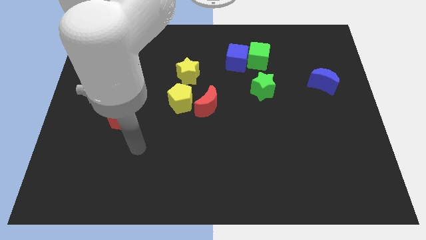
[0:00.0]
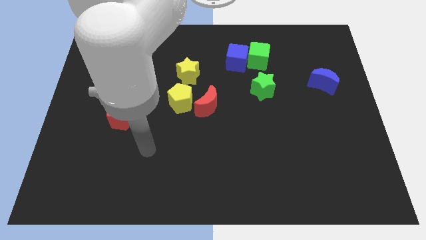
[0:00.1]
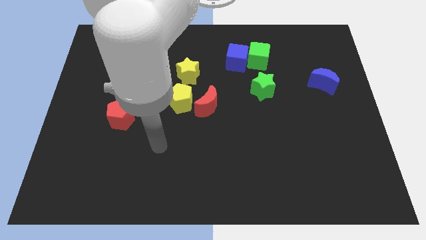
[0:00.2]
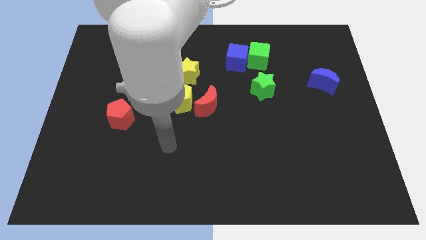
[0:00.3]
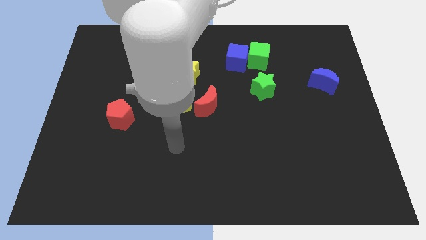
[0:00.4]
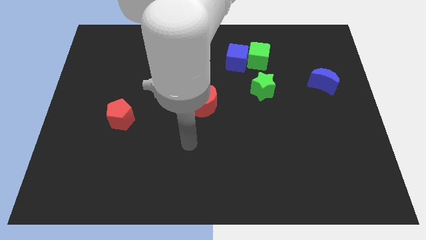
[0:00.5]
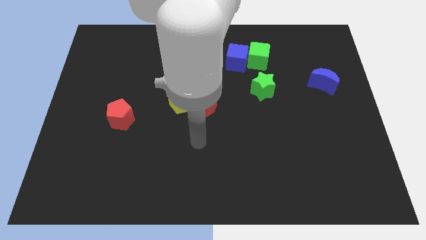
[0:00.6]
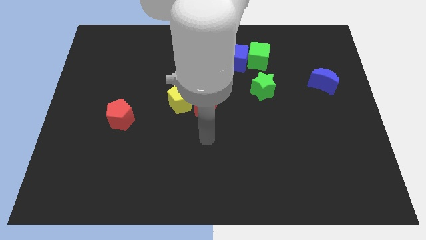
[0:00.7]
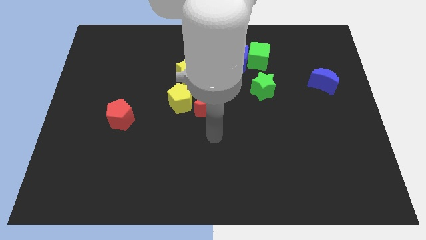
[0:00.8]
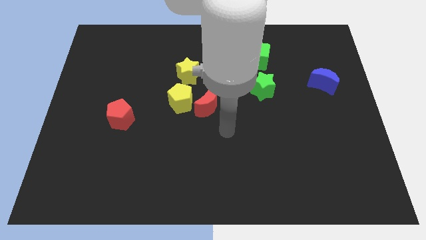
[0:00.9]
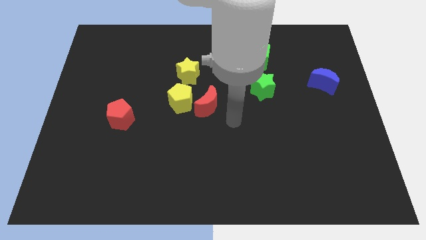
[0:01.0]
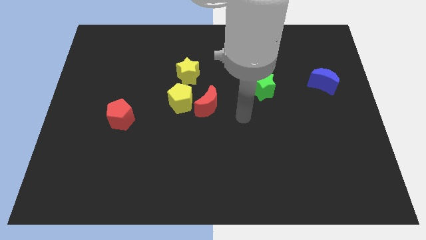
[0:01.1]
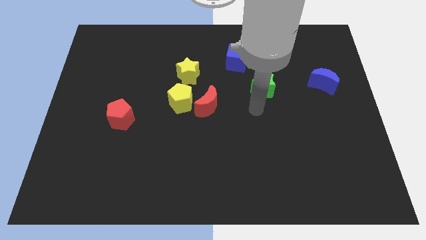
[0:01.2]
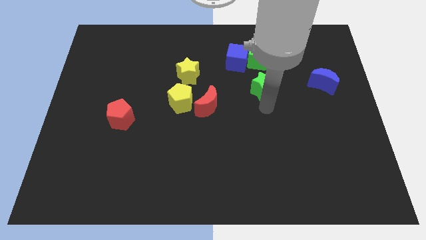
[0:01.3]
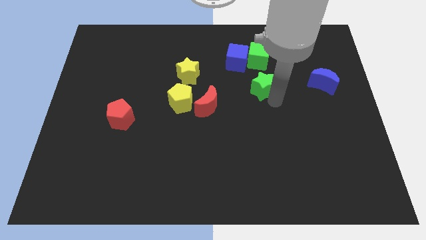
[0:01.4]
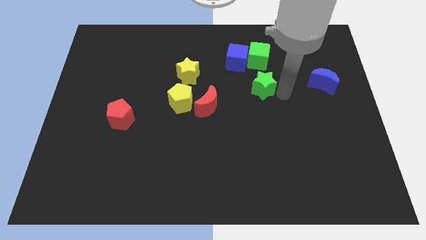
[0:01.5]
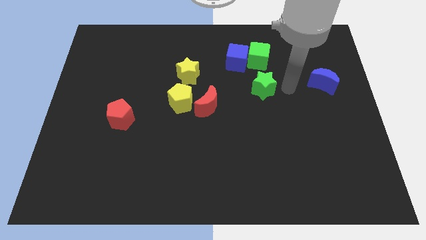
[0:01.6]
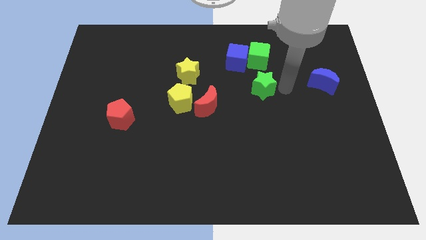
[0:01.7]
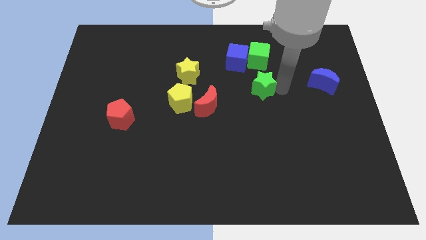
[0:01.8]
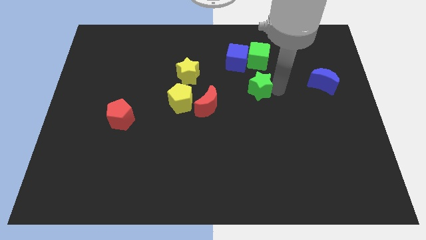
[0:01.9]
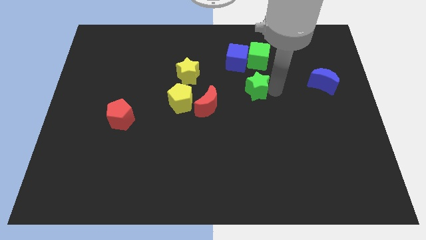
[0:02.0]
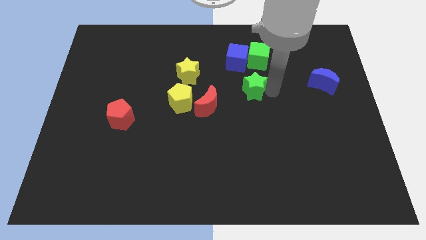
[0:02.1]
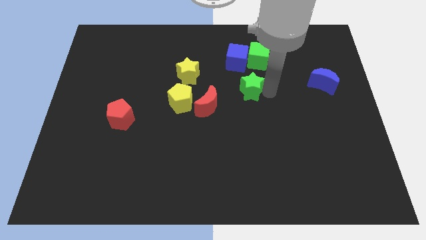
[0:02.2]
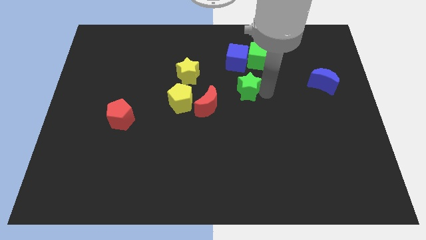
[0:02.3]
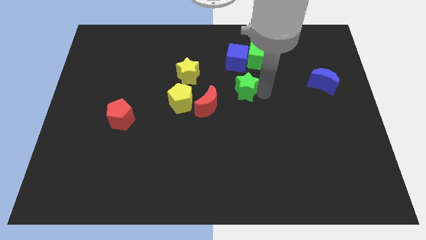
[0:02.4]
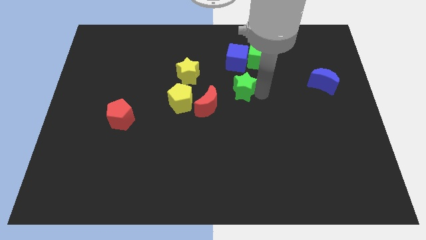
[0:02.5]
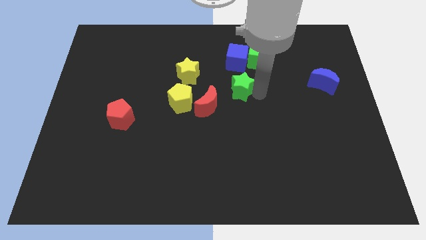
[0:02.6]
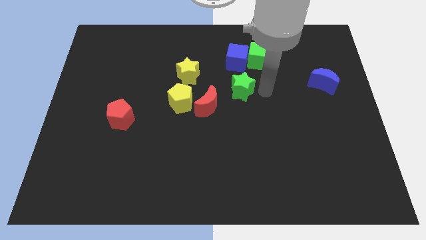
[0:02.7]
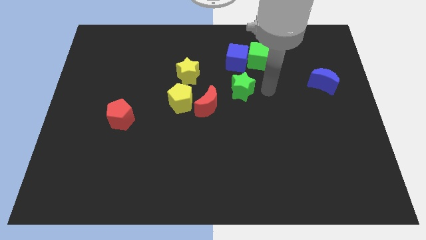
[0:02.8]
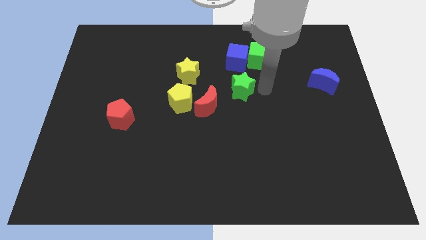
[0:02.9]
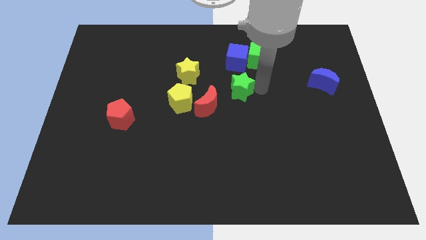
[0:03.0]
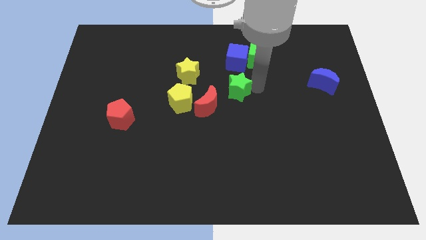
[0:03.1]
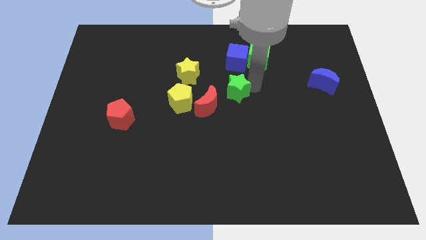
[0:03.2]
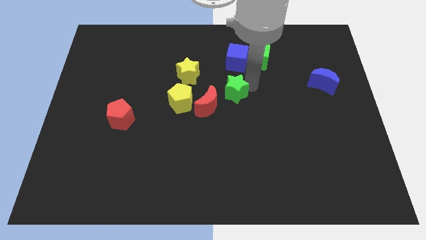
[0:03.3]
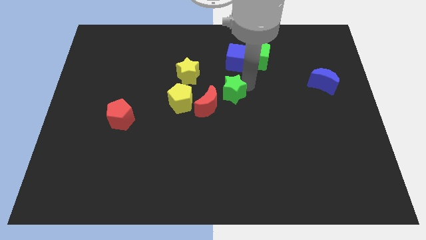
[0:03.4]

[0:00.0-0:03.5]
slightly move the green star to the left

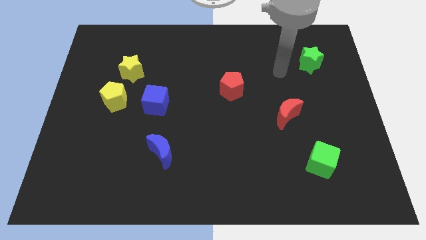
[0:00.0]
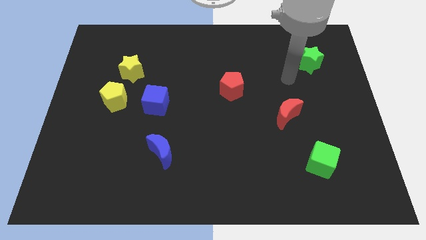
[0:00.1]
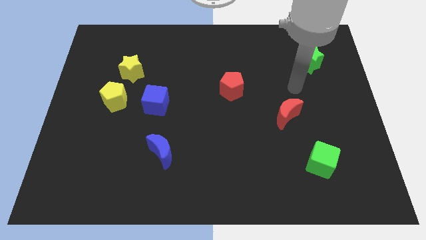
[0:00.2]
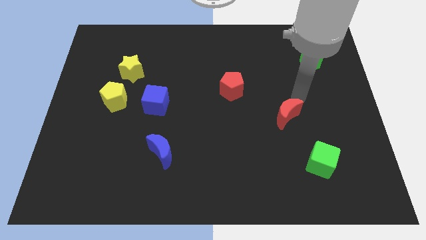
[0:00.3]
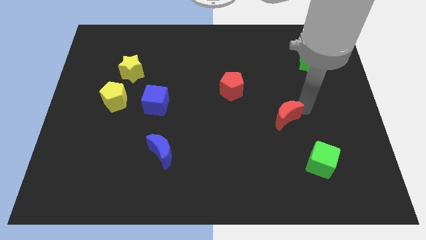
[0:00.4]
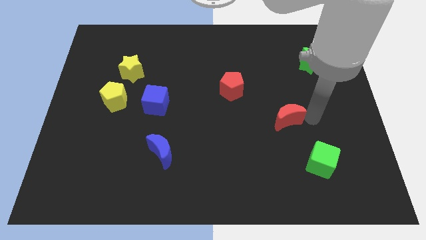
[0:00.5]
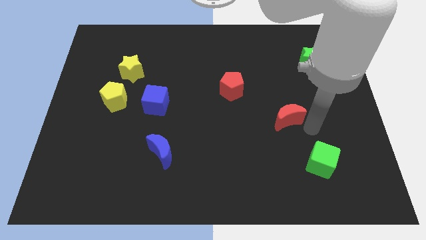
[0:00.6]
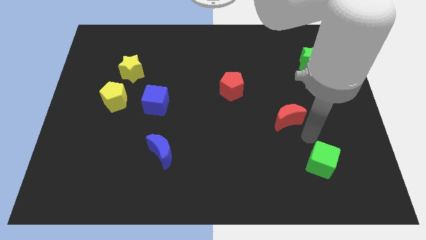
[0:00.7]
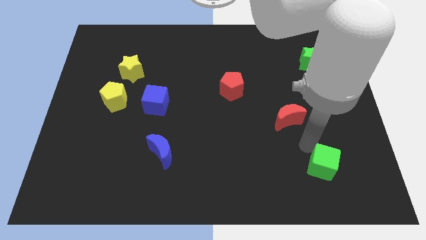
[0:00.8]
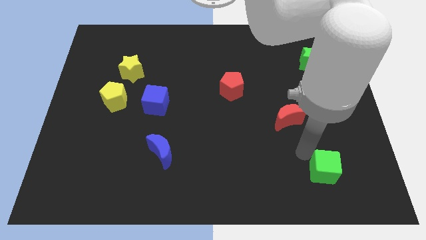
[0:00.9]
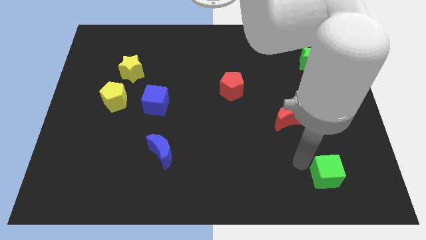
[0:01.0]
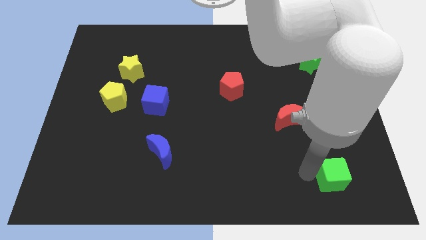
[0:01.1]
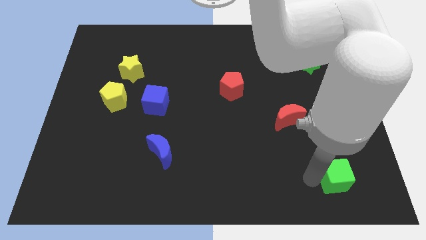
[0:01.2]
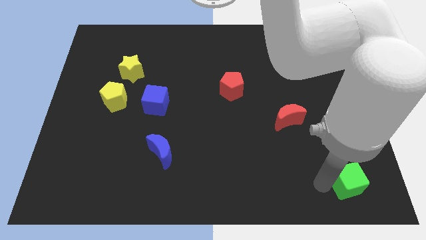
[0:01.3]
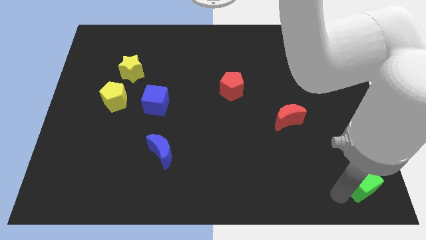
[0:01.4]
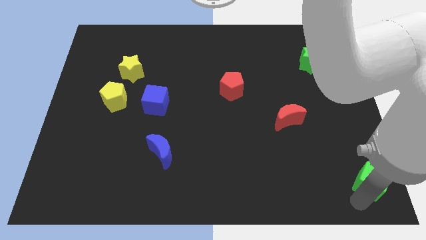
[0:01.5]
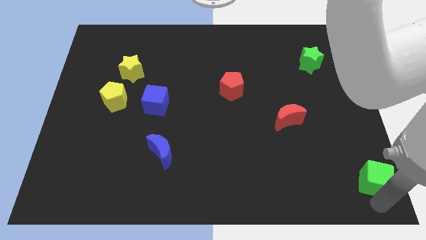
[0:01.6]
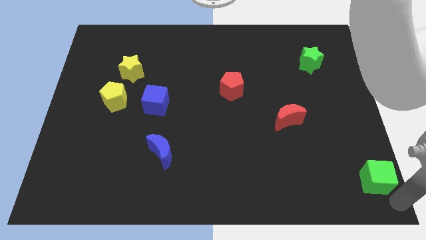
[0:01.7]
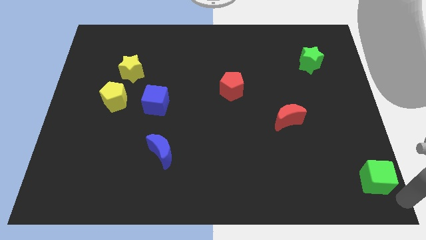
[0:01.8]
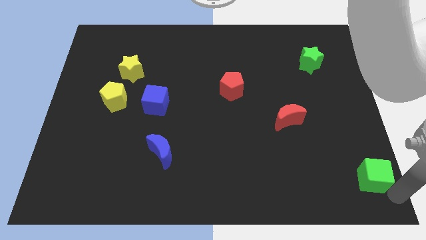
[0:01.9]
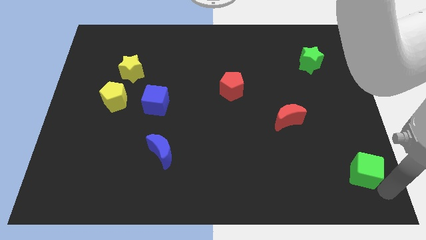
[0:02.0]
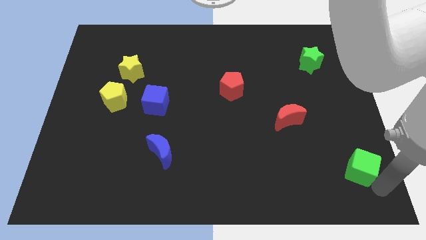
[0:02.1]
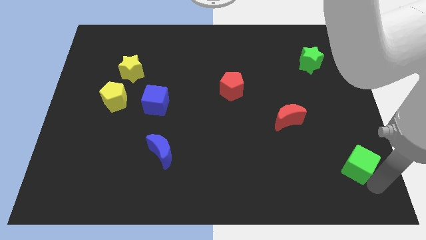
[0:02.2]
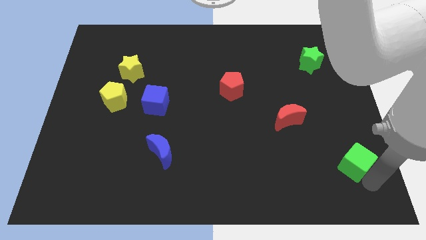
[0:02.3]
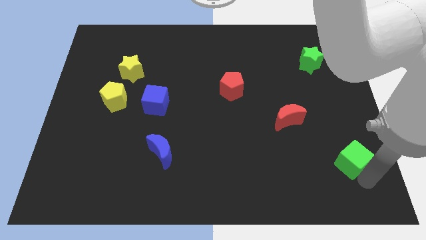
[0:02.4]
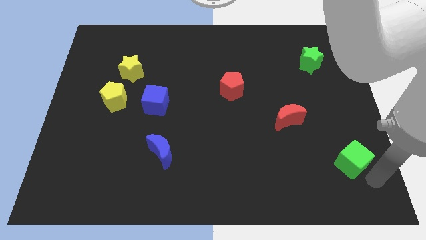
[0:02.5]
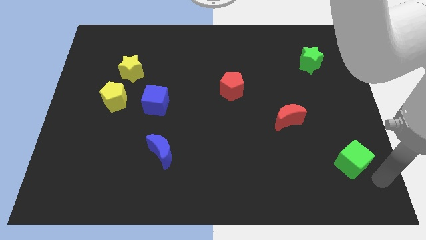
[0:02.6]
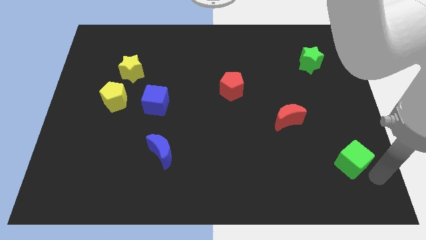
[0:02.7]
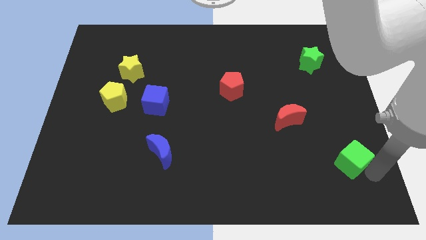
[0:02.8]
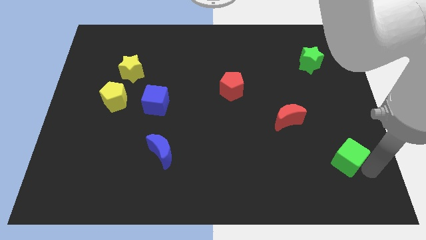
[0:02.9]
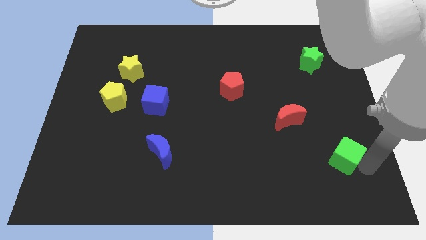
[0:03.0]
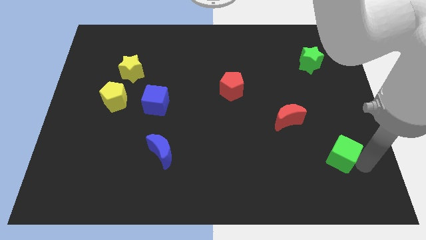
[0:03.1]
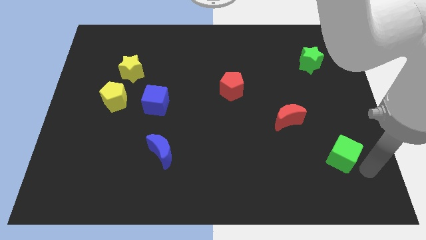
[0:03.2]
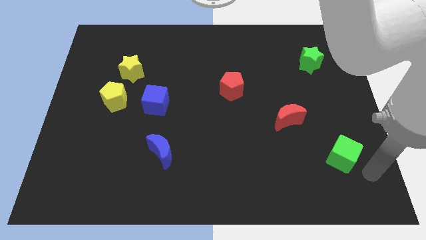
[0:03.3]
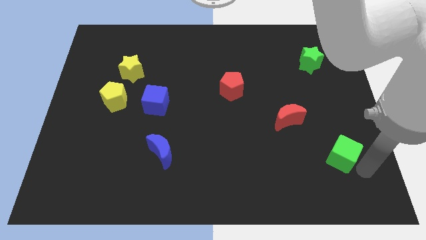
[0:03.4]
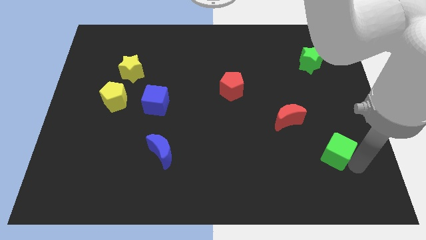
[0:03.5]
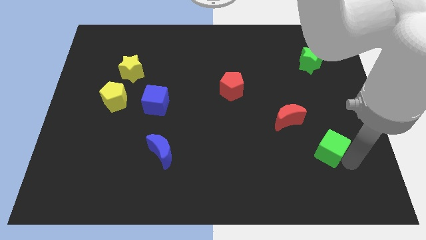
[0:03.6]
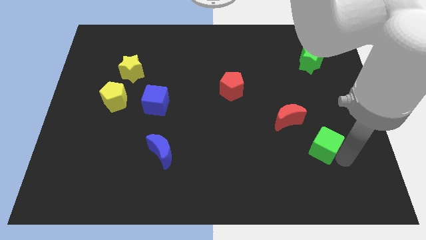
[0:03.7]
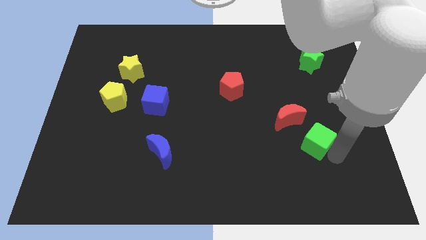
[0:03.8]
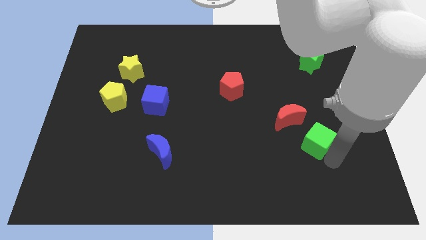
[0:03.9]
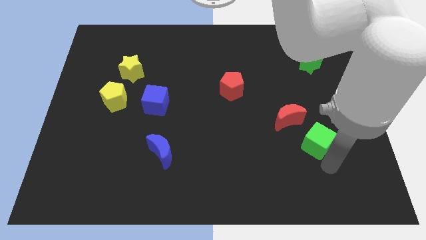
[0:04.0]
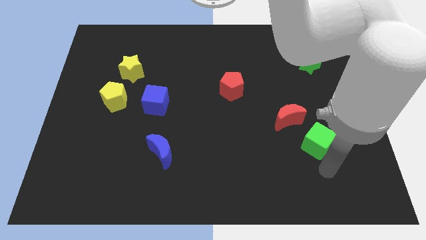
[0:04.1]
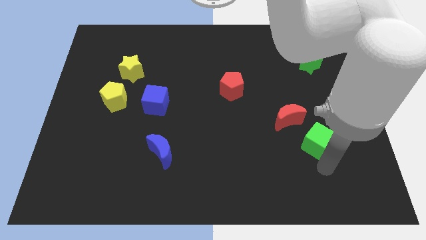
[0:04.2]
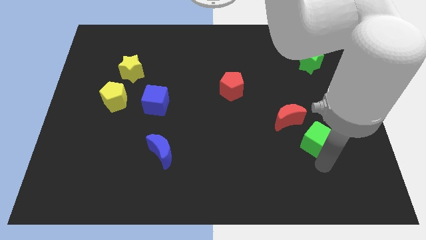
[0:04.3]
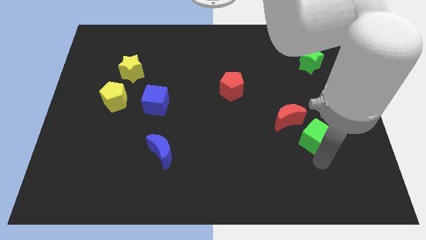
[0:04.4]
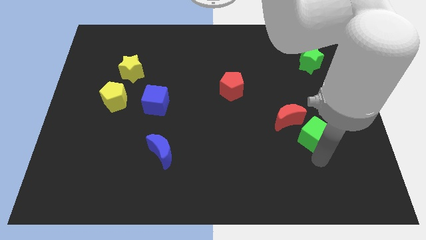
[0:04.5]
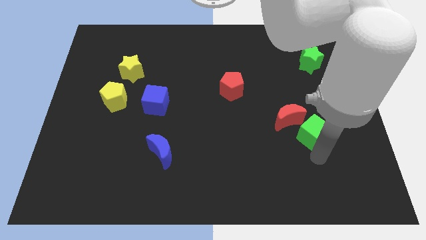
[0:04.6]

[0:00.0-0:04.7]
slightly push the green cube up
